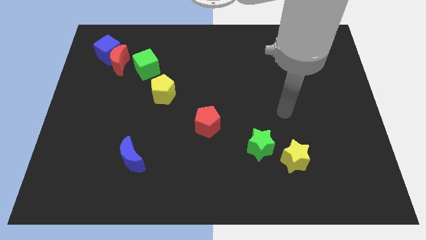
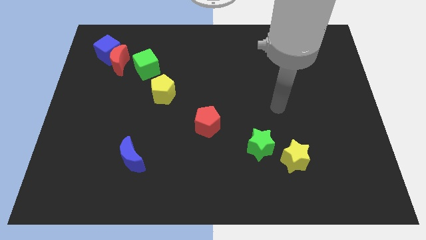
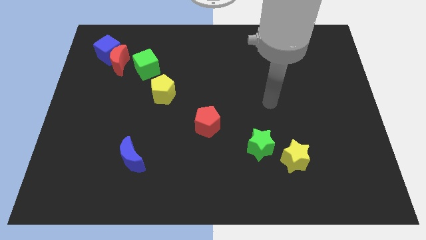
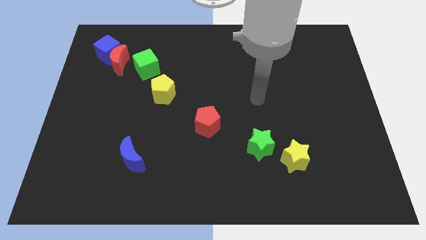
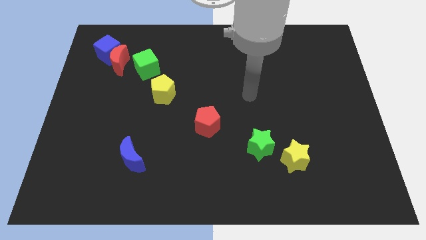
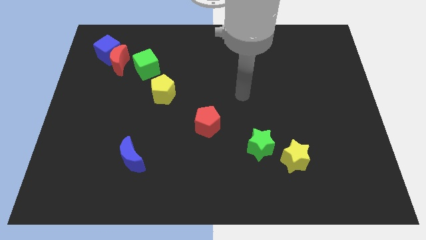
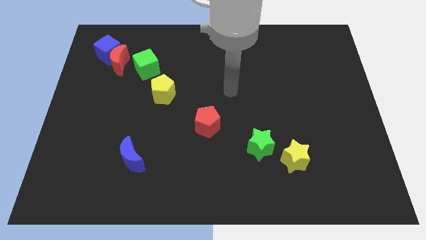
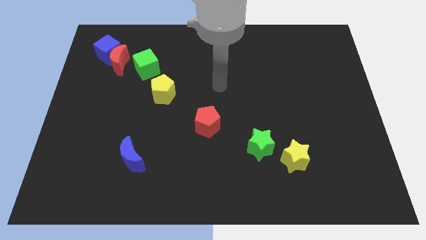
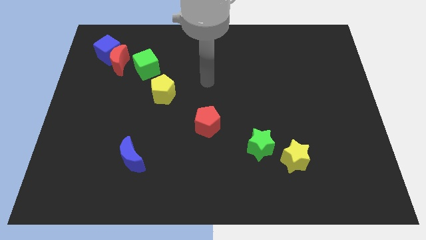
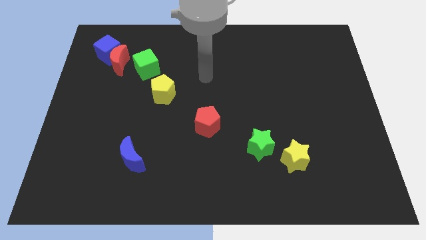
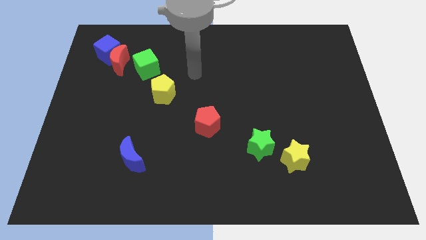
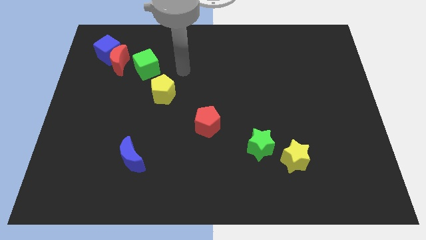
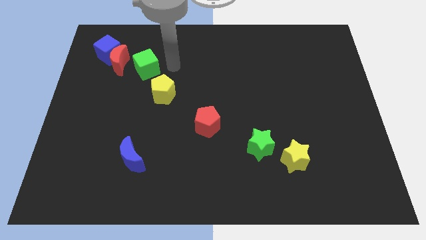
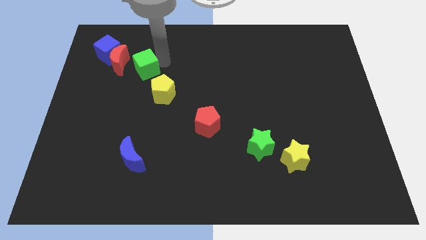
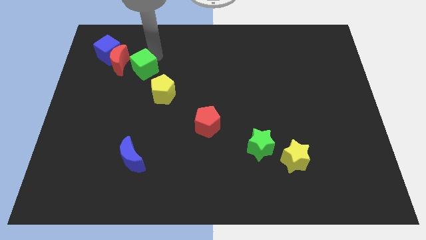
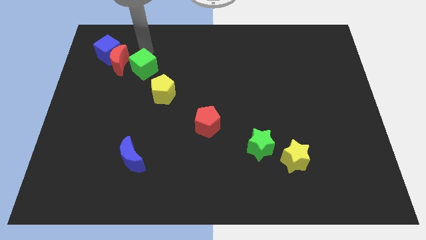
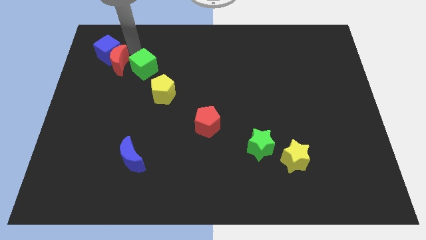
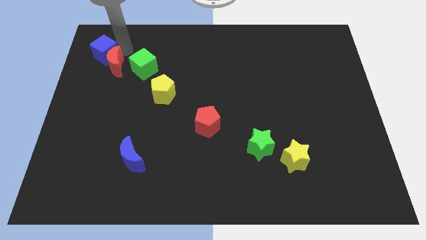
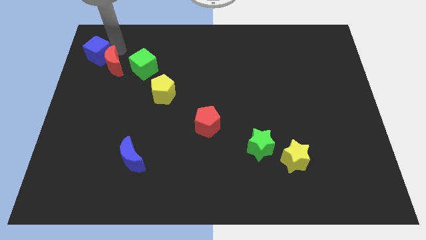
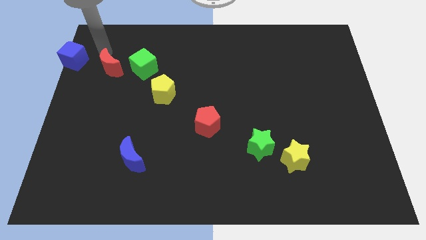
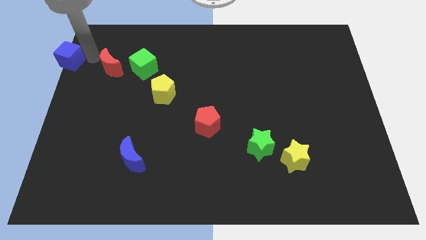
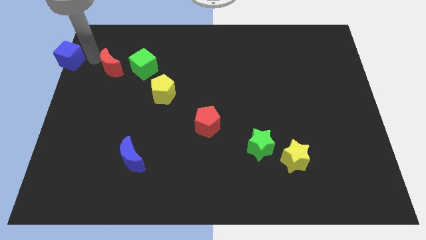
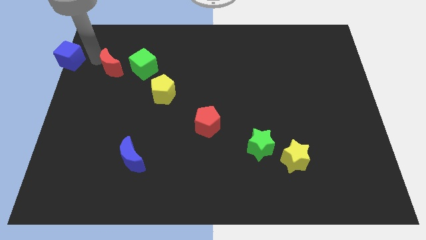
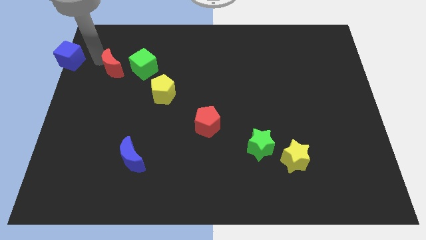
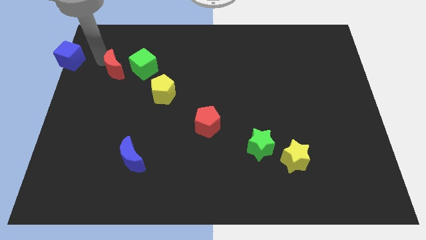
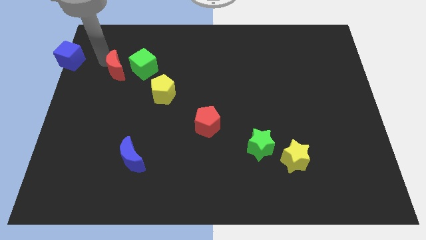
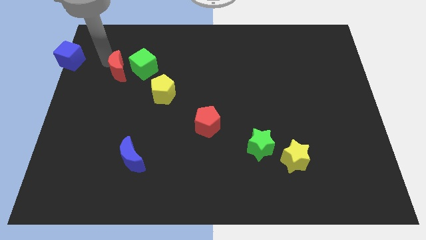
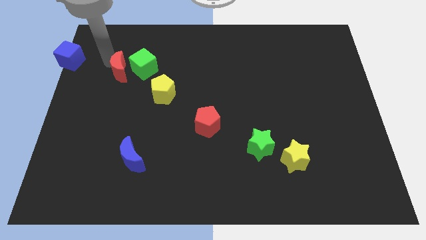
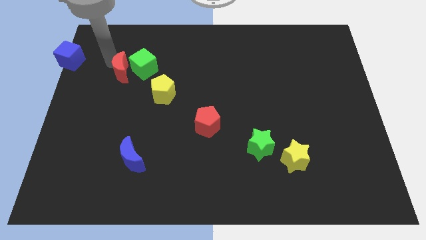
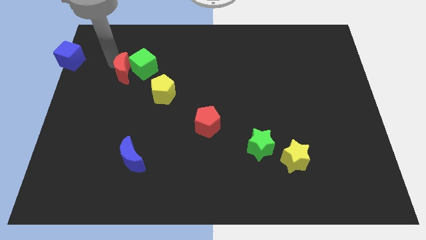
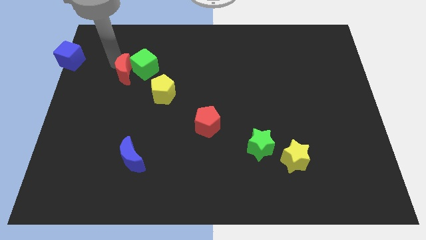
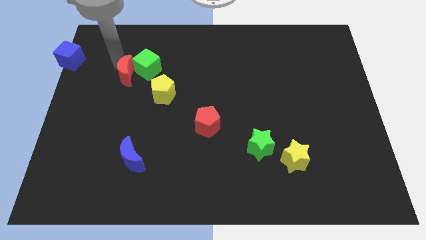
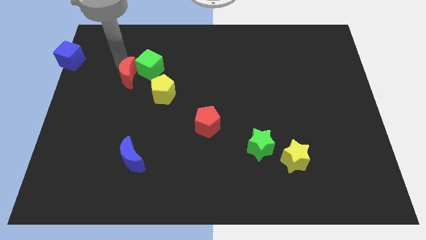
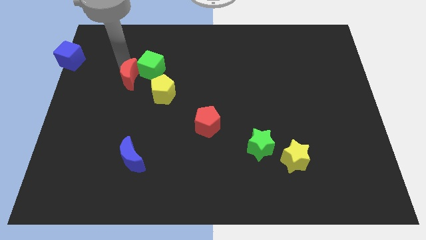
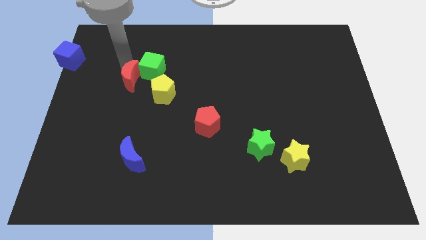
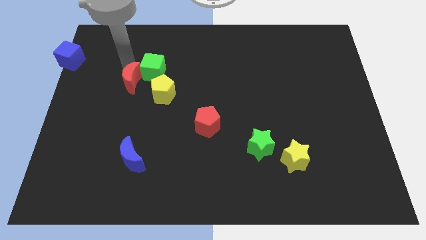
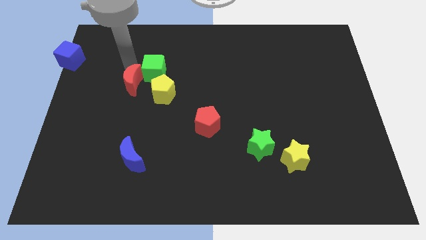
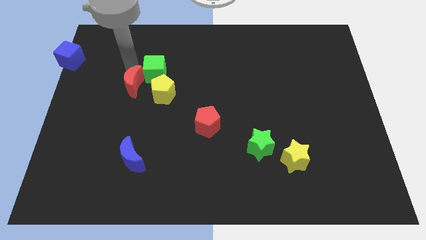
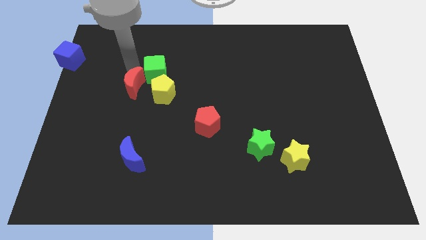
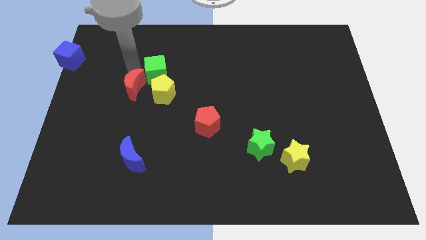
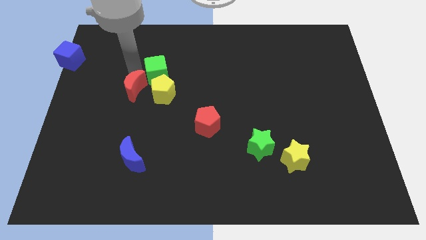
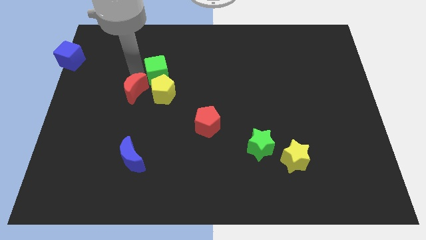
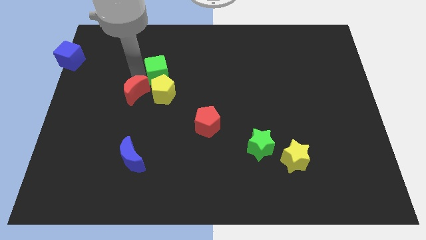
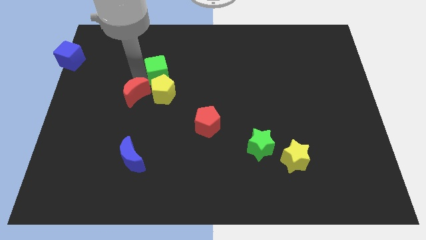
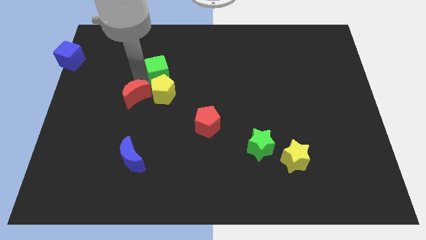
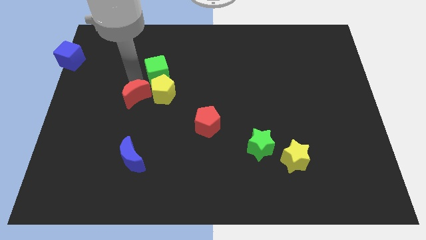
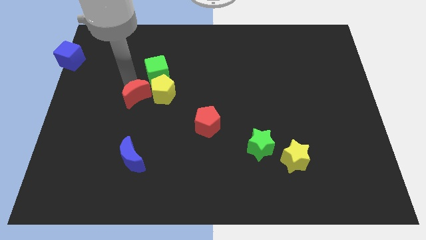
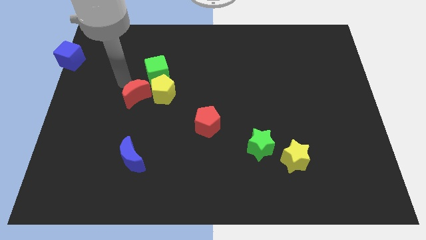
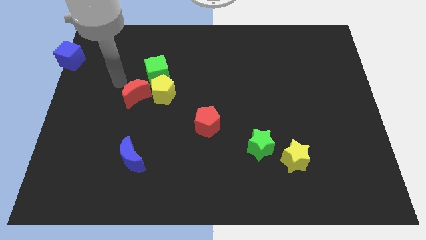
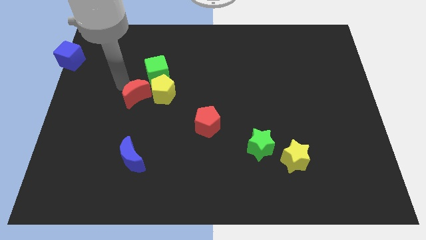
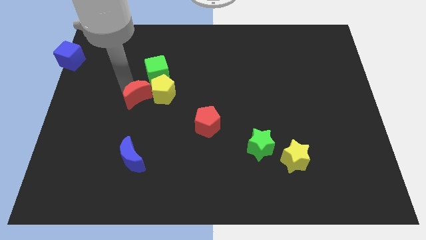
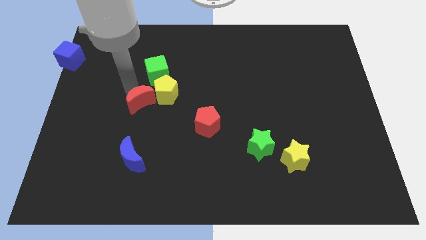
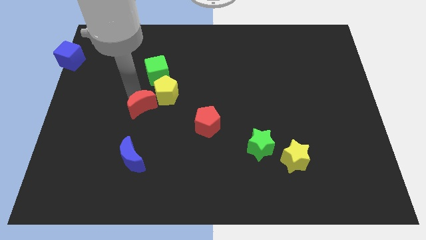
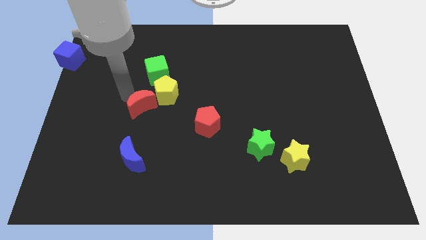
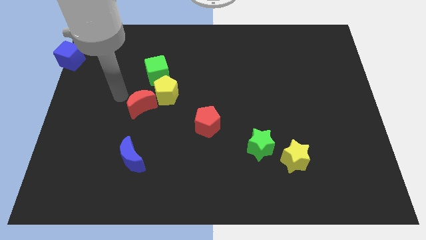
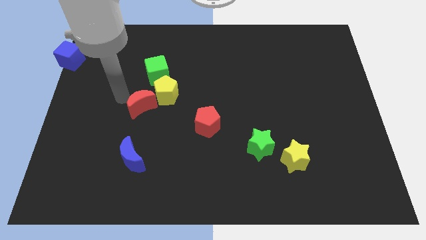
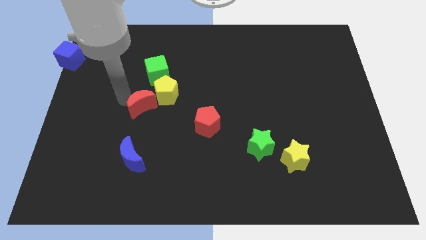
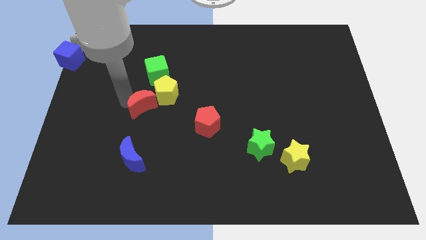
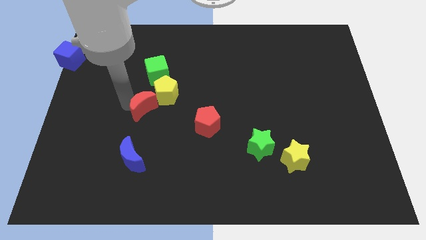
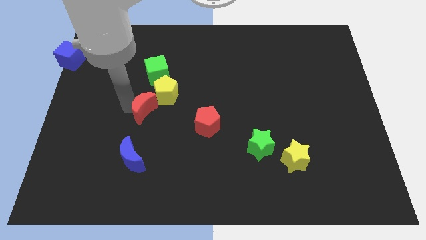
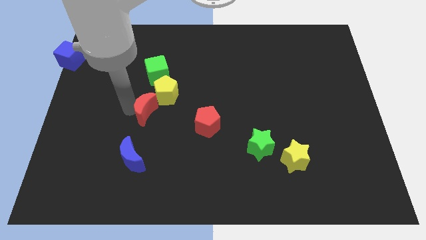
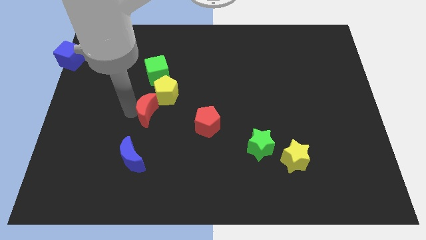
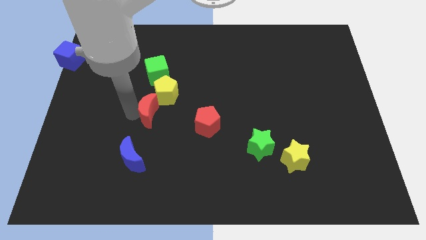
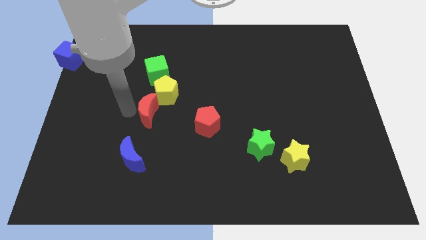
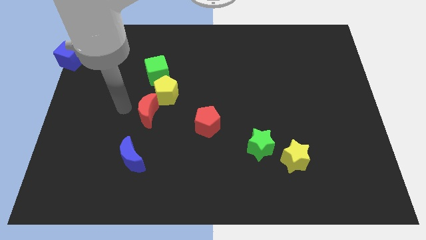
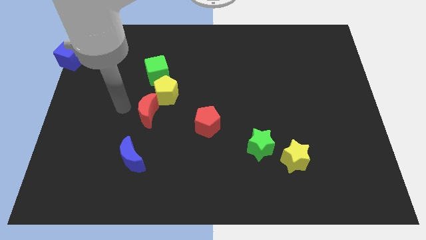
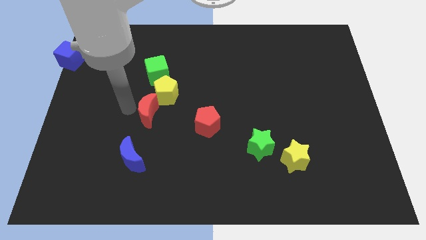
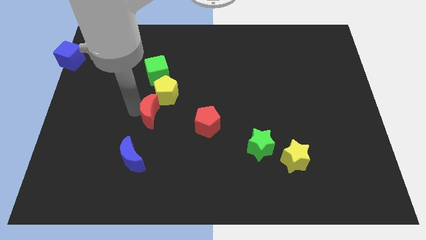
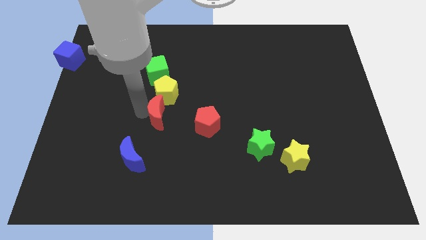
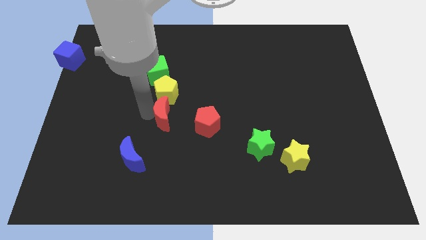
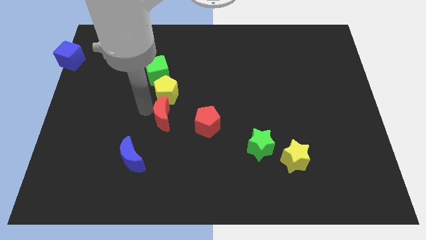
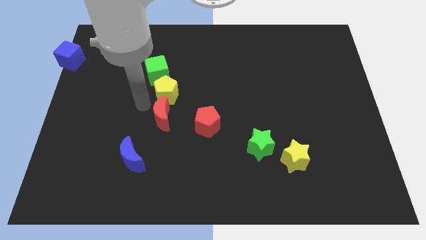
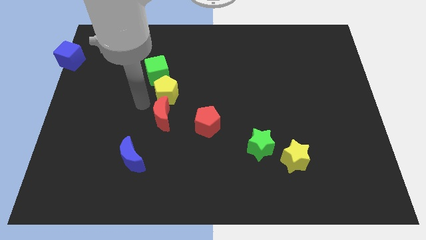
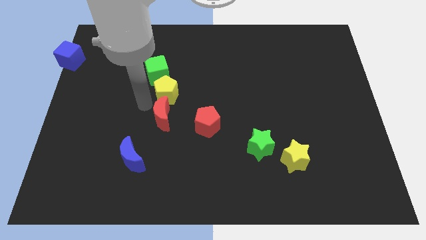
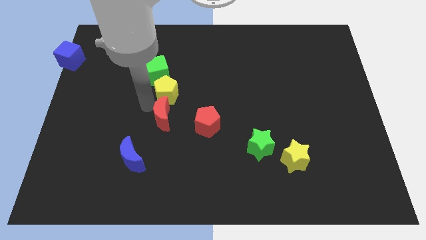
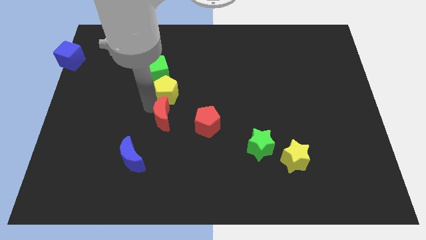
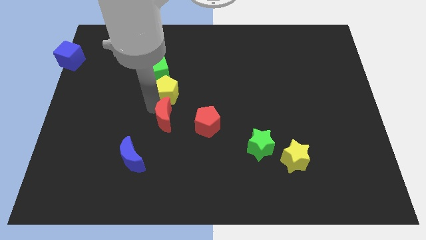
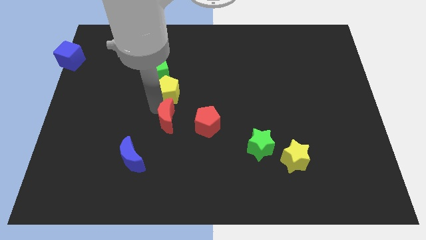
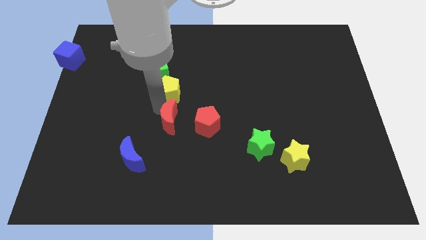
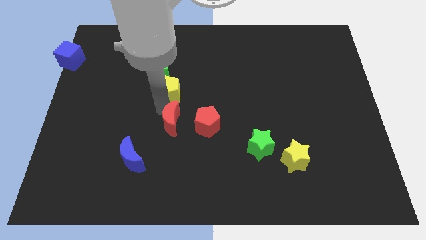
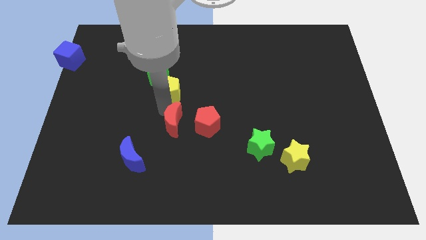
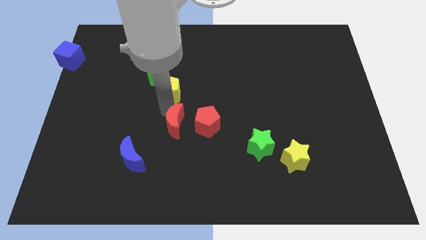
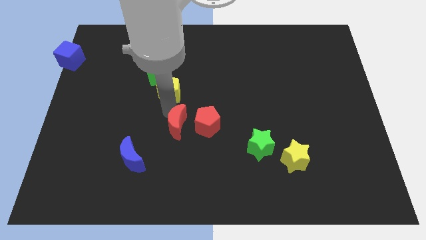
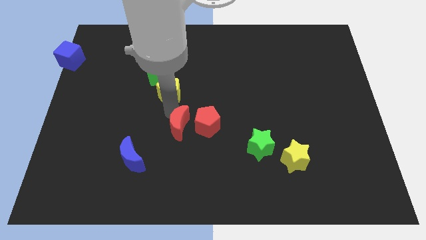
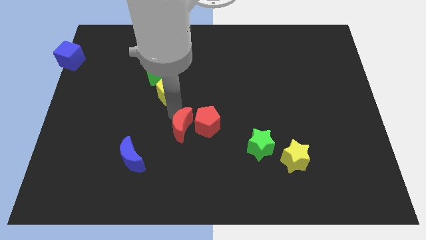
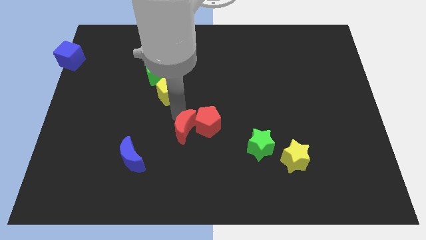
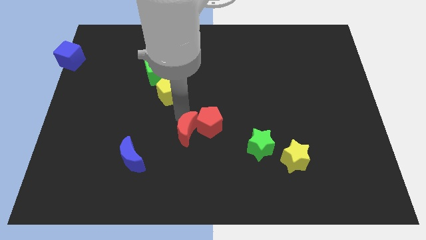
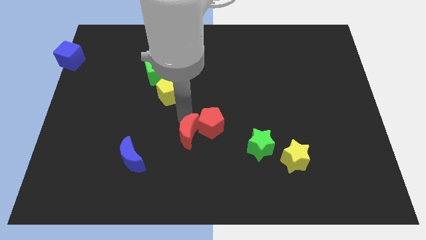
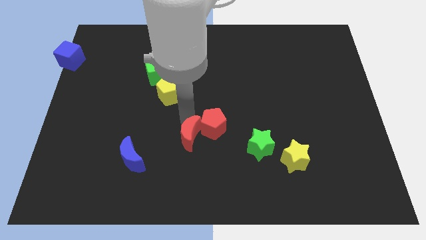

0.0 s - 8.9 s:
move the red moon to the left of the green star
